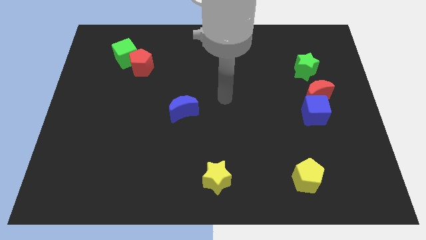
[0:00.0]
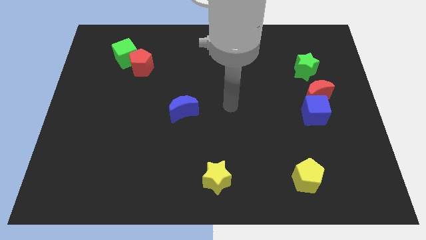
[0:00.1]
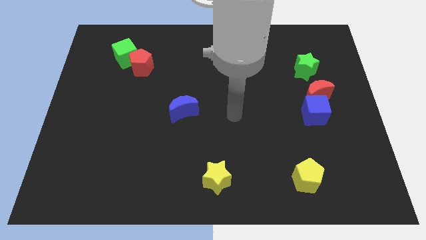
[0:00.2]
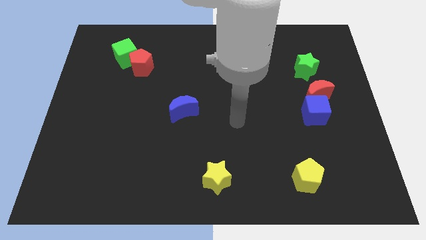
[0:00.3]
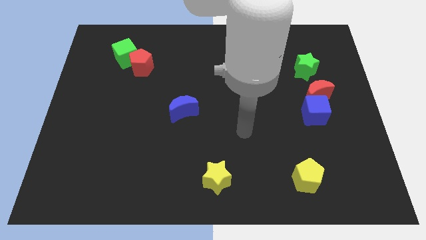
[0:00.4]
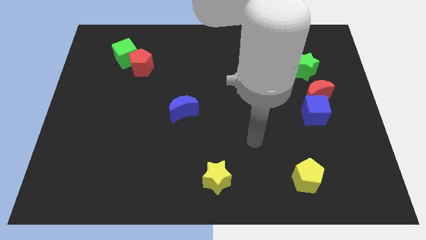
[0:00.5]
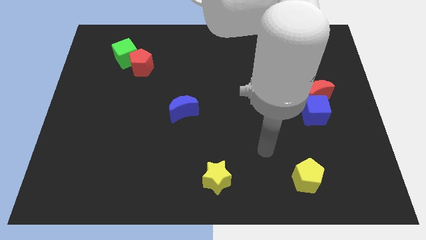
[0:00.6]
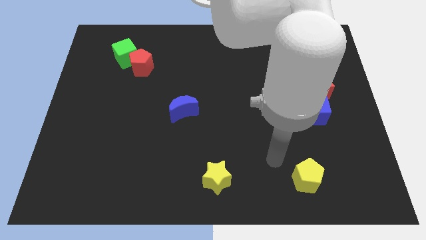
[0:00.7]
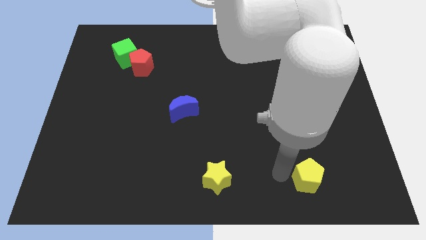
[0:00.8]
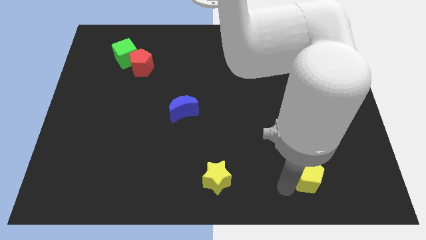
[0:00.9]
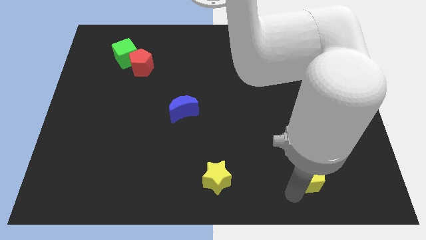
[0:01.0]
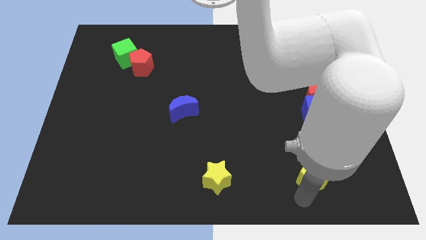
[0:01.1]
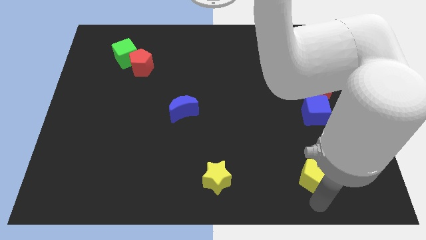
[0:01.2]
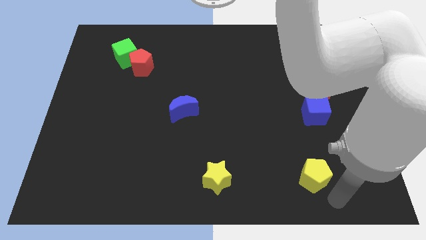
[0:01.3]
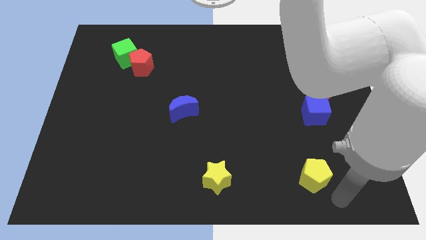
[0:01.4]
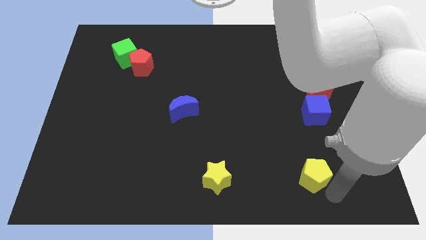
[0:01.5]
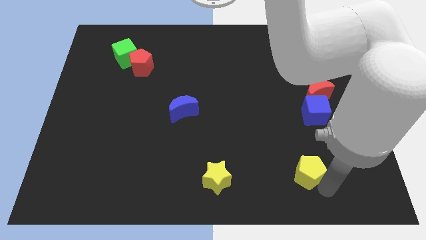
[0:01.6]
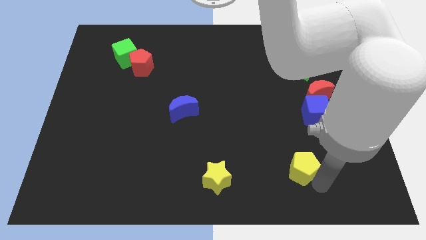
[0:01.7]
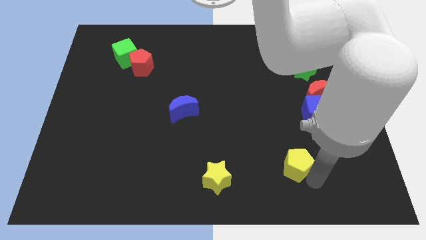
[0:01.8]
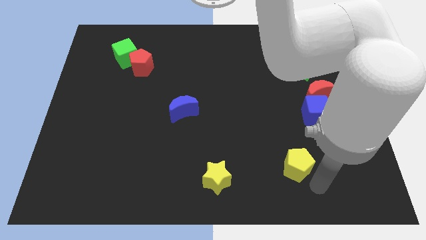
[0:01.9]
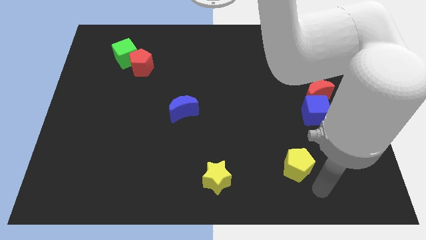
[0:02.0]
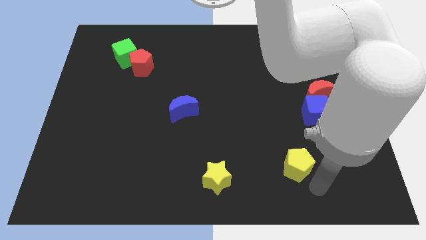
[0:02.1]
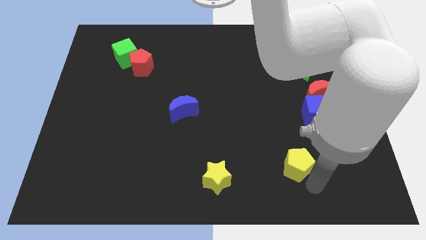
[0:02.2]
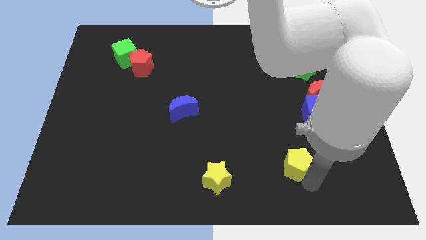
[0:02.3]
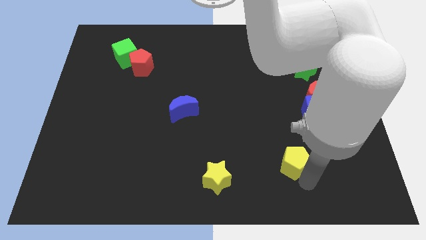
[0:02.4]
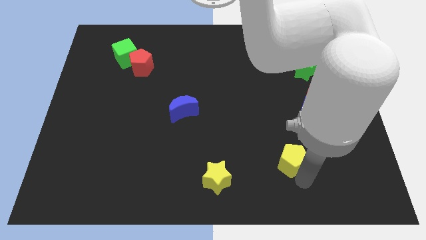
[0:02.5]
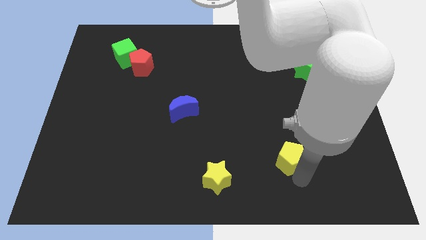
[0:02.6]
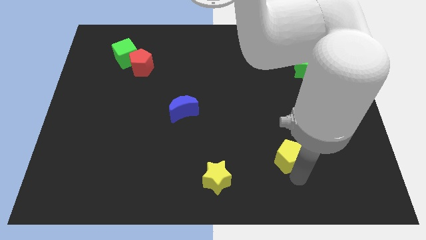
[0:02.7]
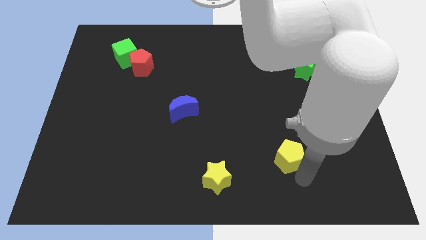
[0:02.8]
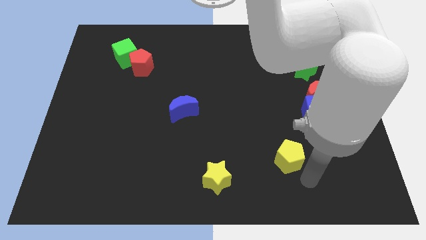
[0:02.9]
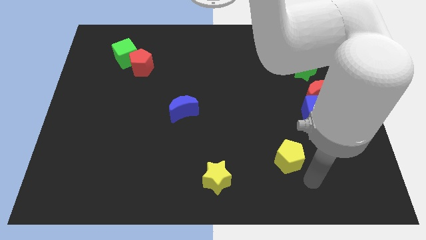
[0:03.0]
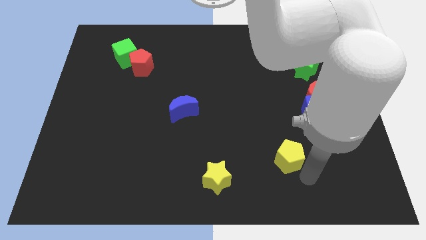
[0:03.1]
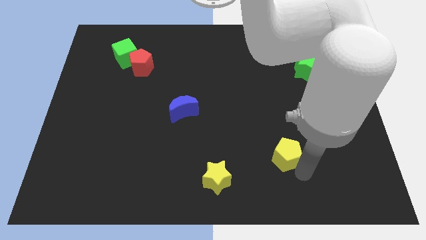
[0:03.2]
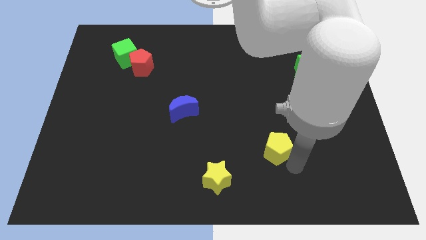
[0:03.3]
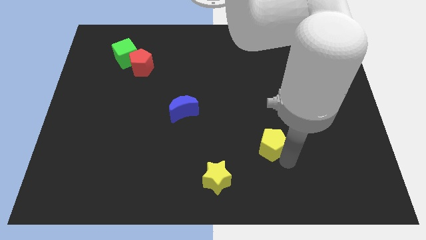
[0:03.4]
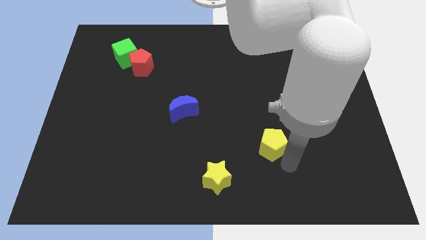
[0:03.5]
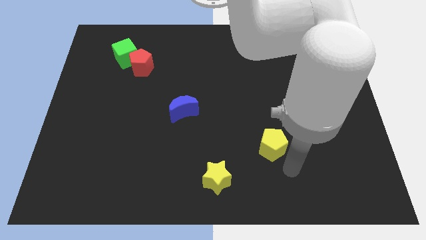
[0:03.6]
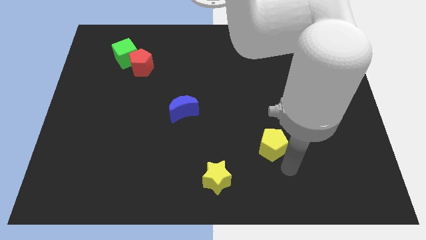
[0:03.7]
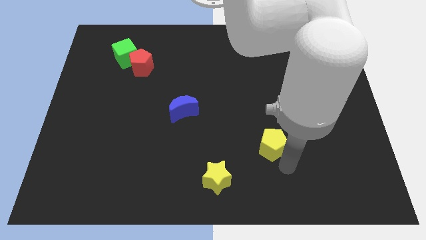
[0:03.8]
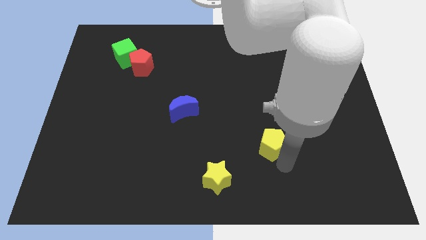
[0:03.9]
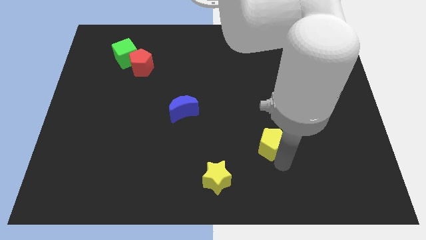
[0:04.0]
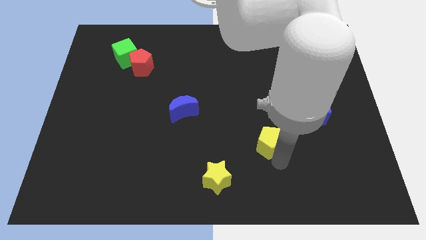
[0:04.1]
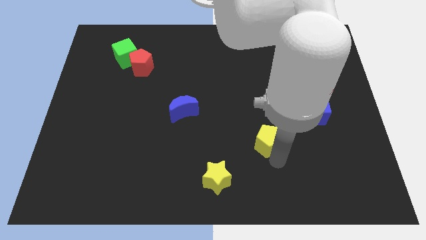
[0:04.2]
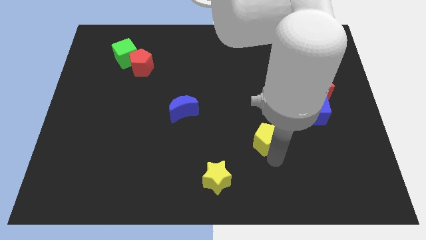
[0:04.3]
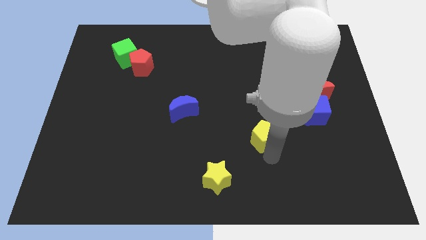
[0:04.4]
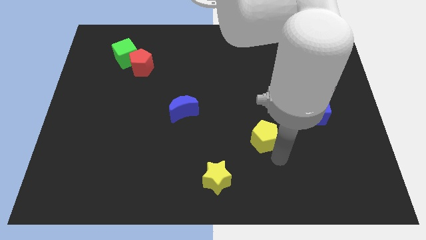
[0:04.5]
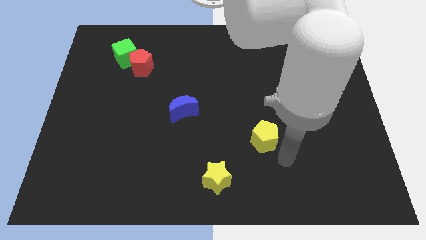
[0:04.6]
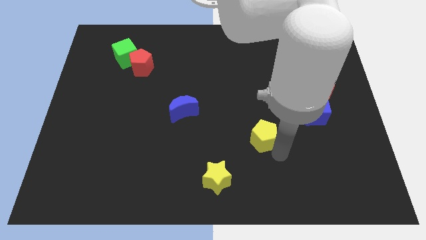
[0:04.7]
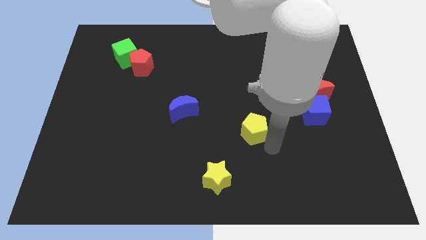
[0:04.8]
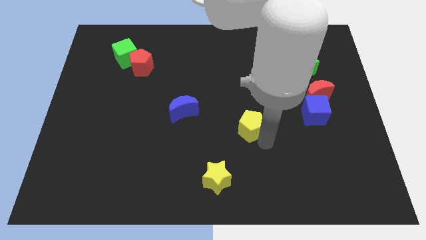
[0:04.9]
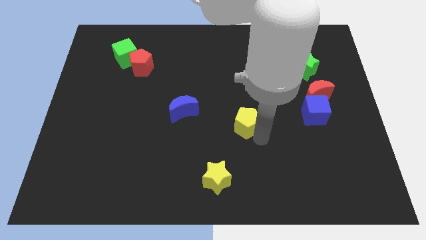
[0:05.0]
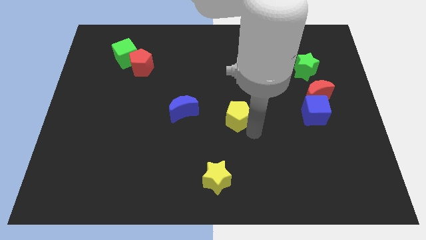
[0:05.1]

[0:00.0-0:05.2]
move the yellow pentagon up and to the left diagonally

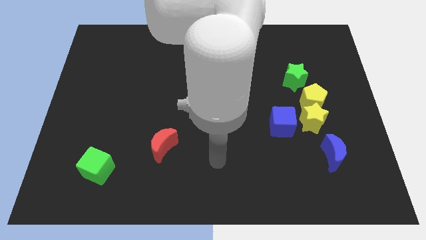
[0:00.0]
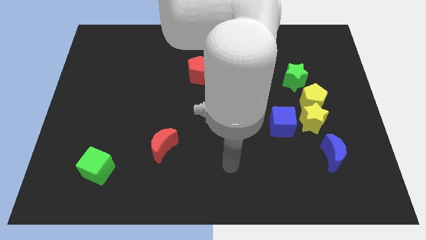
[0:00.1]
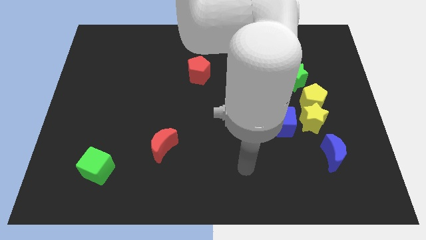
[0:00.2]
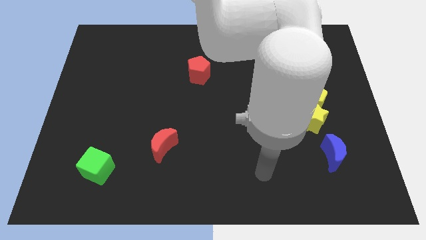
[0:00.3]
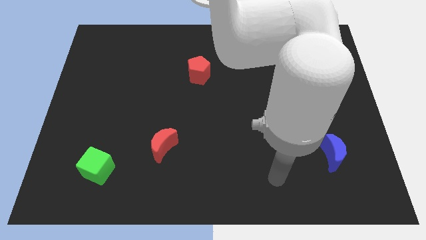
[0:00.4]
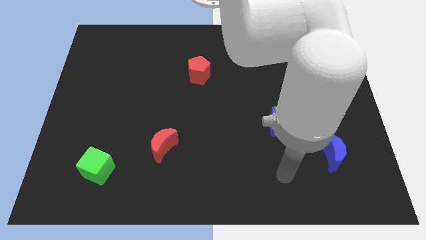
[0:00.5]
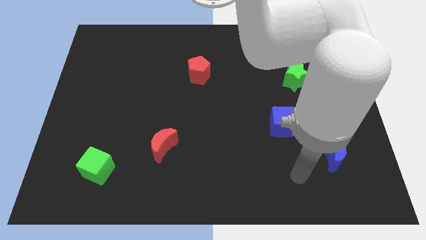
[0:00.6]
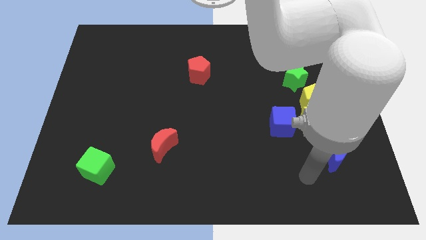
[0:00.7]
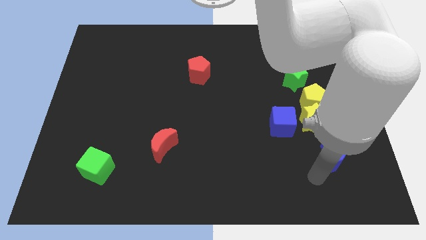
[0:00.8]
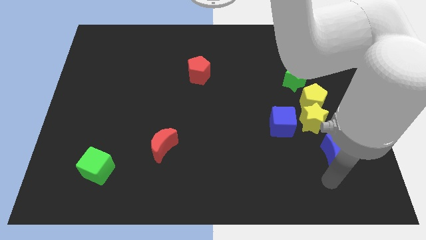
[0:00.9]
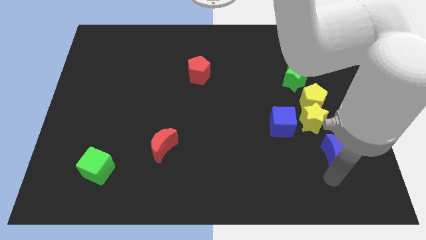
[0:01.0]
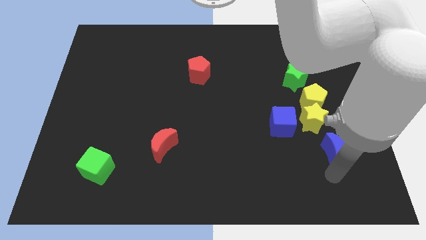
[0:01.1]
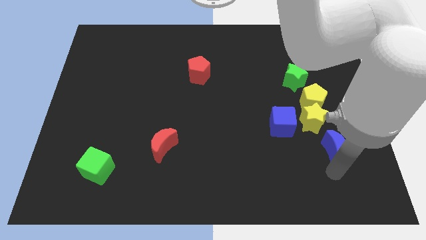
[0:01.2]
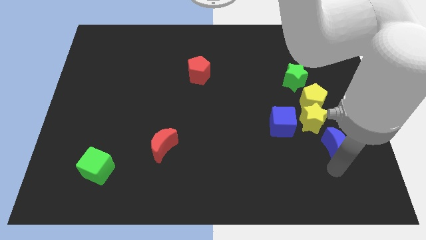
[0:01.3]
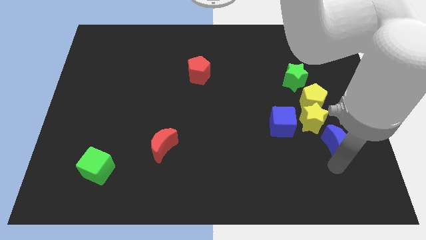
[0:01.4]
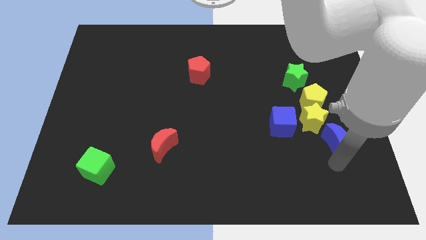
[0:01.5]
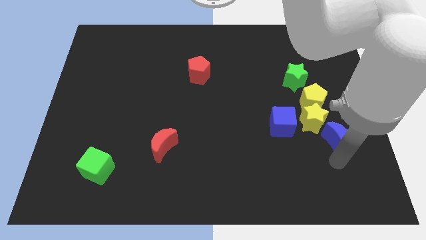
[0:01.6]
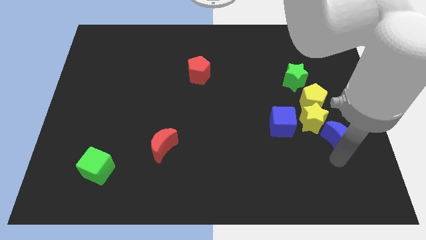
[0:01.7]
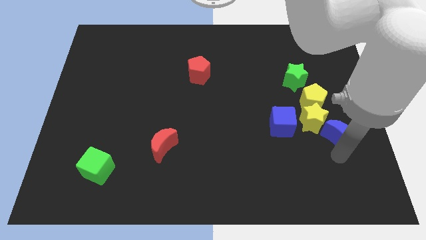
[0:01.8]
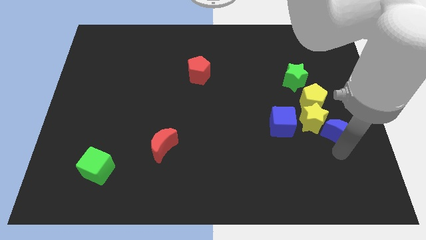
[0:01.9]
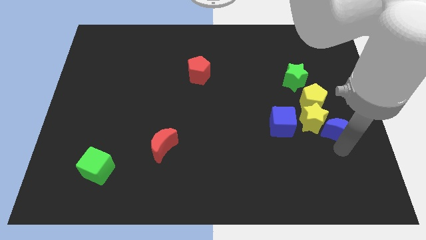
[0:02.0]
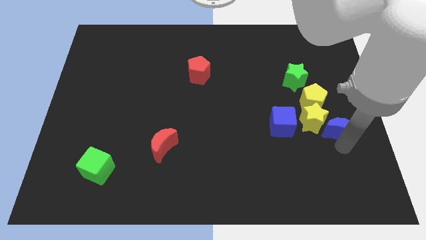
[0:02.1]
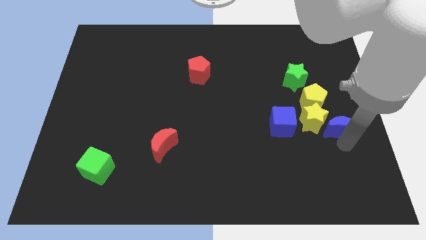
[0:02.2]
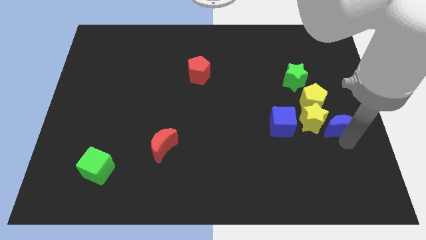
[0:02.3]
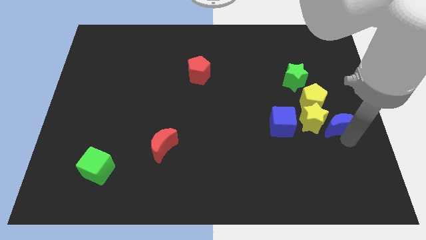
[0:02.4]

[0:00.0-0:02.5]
slightly slide the blue moon up

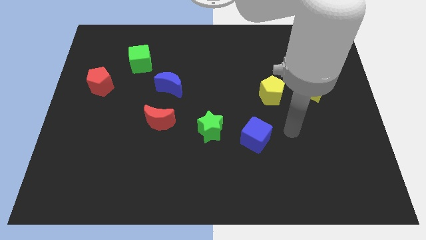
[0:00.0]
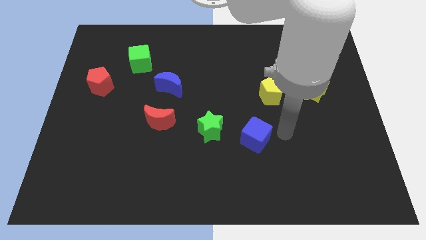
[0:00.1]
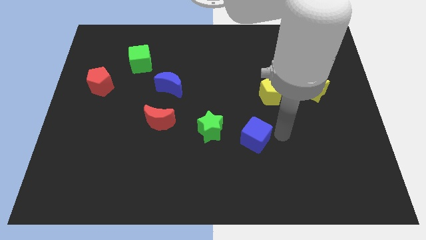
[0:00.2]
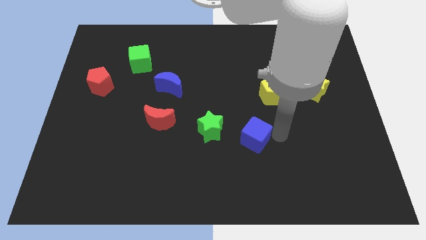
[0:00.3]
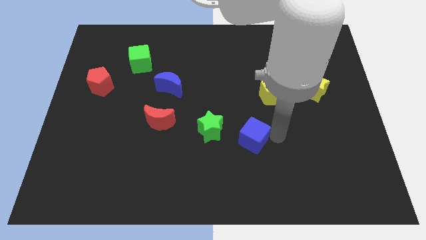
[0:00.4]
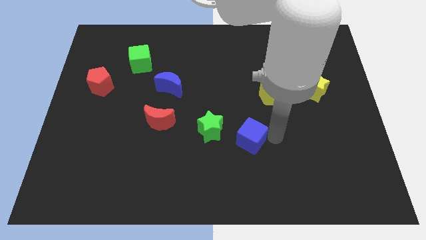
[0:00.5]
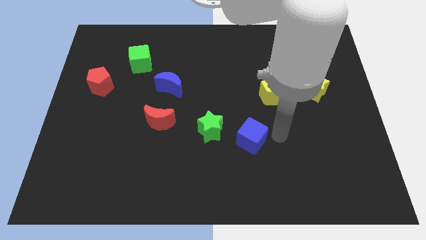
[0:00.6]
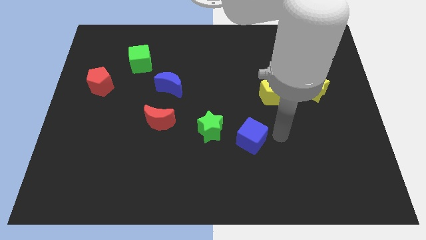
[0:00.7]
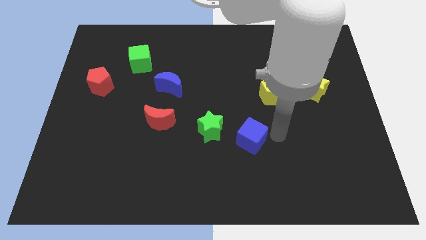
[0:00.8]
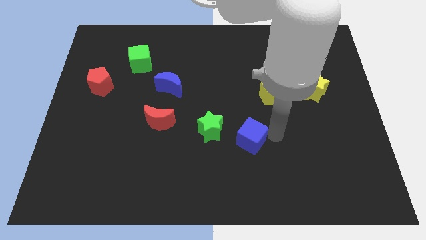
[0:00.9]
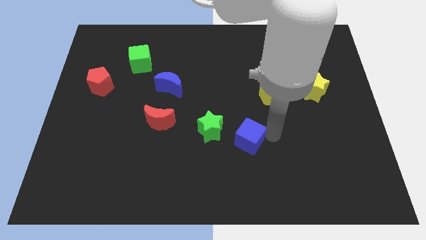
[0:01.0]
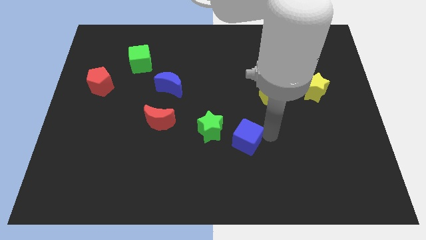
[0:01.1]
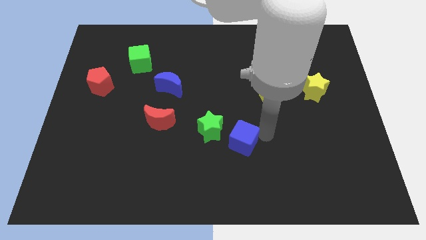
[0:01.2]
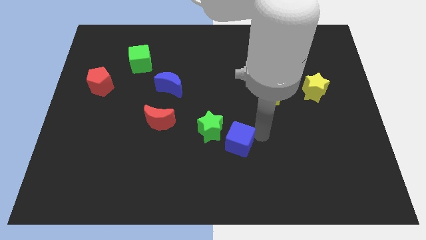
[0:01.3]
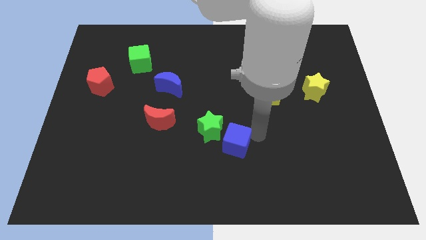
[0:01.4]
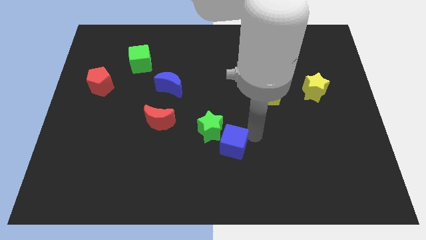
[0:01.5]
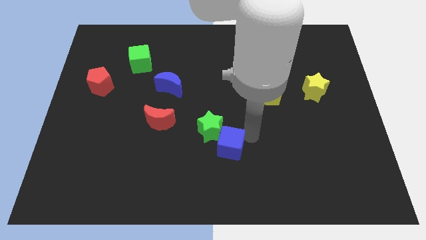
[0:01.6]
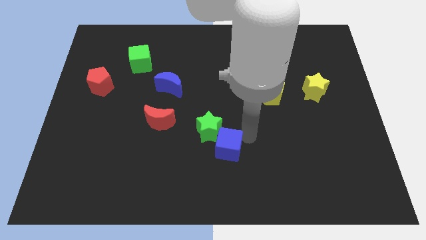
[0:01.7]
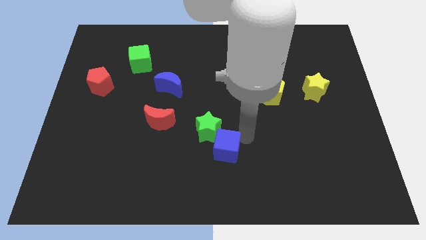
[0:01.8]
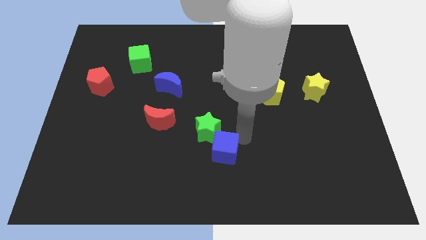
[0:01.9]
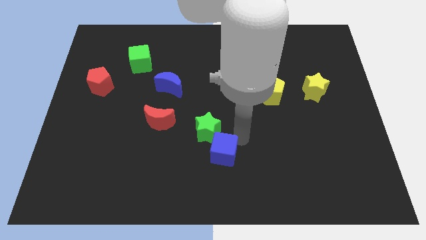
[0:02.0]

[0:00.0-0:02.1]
push the blue cube left a little bit
